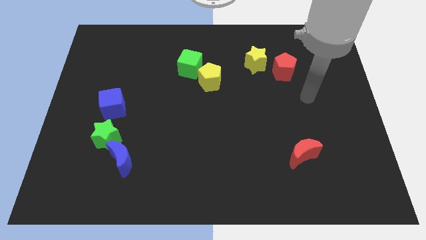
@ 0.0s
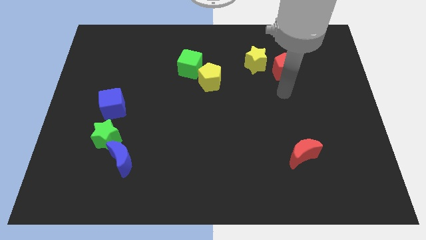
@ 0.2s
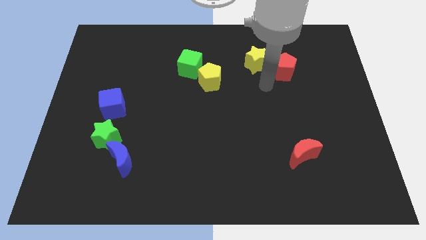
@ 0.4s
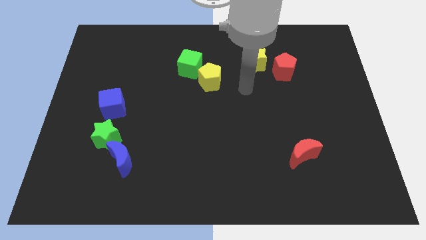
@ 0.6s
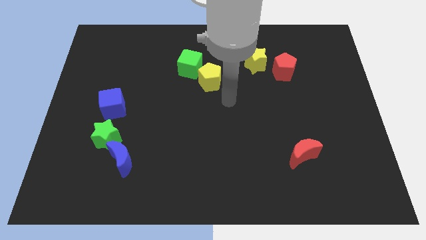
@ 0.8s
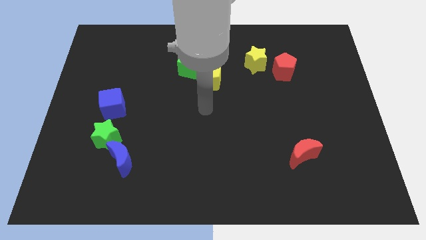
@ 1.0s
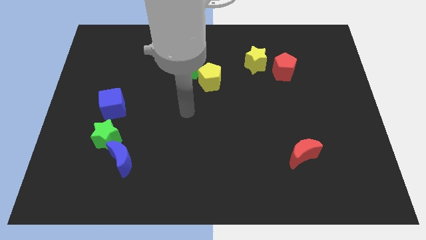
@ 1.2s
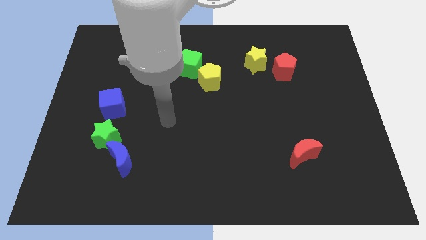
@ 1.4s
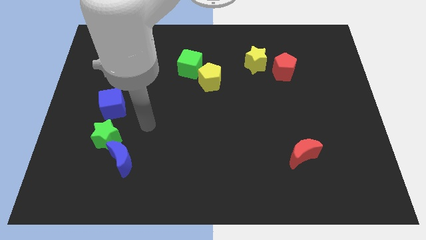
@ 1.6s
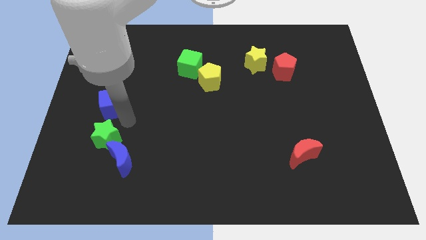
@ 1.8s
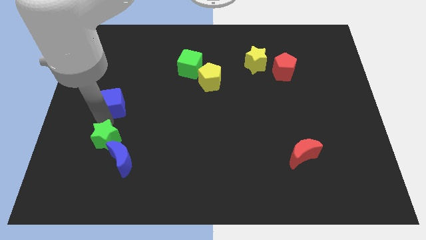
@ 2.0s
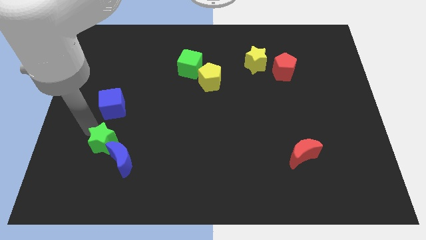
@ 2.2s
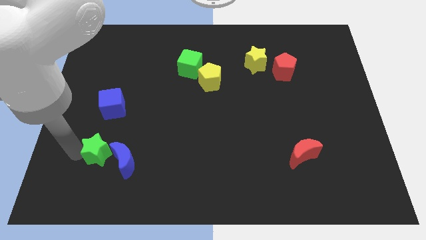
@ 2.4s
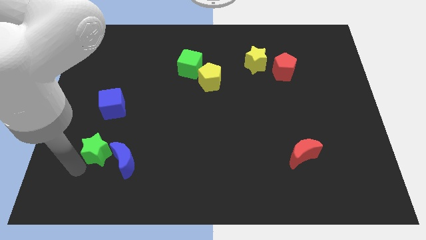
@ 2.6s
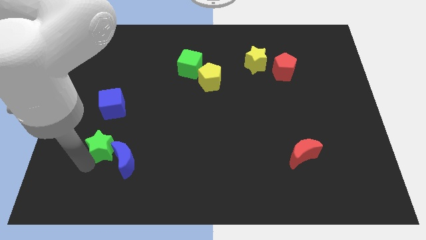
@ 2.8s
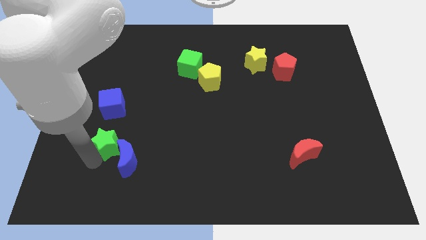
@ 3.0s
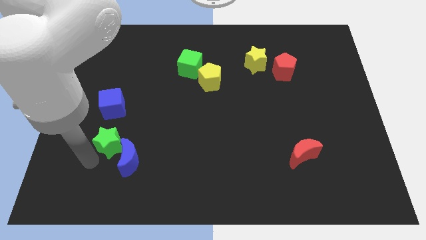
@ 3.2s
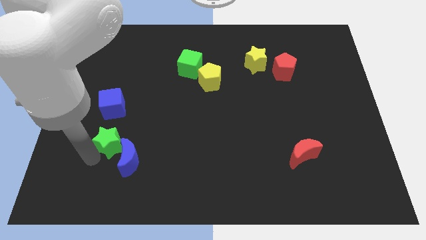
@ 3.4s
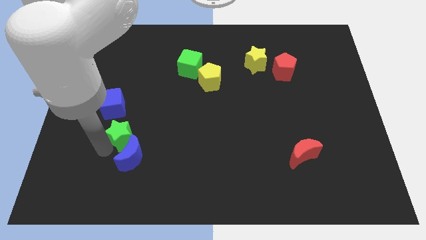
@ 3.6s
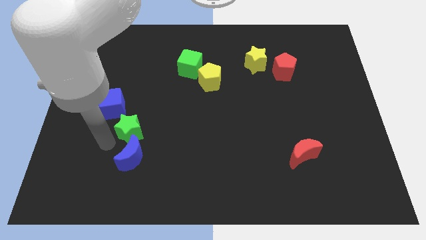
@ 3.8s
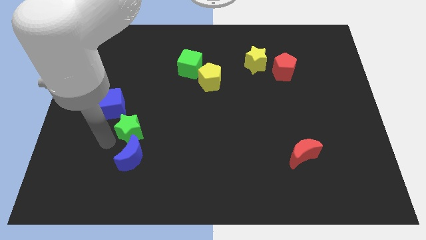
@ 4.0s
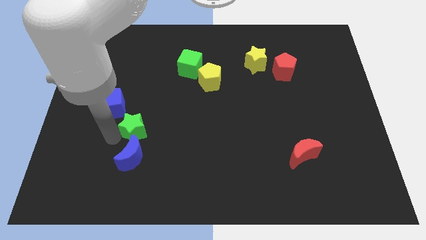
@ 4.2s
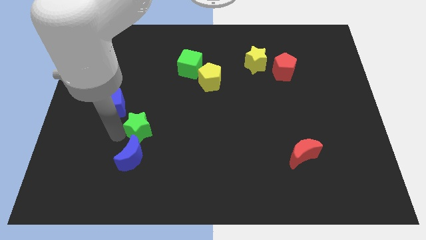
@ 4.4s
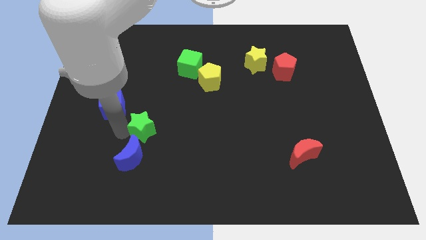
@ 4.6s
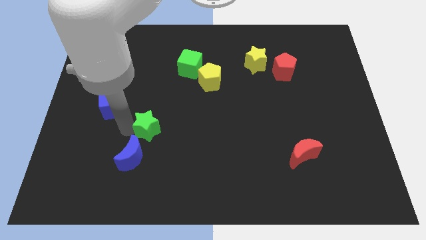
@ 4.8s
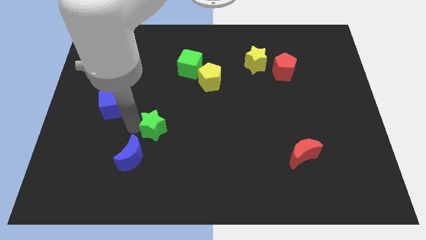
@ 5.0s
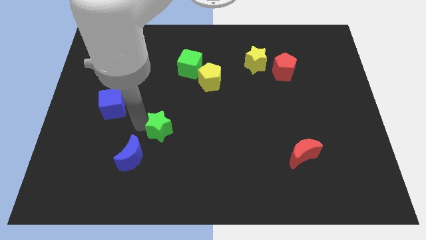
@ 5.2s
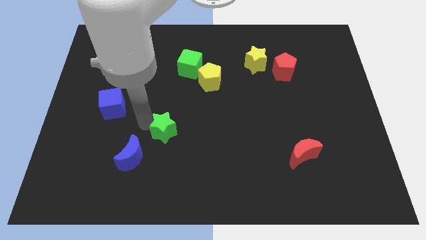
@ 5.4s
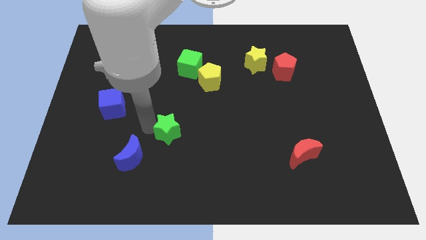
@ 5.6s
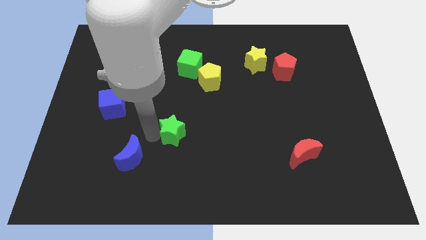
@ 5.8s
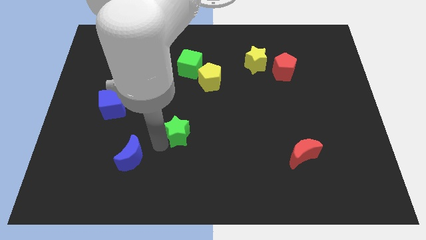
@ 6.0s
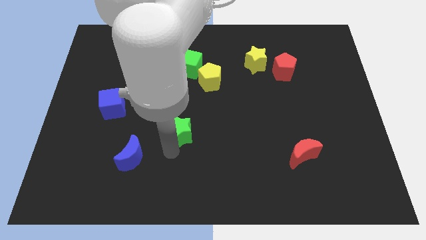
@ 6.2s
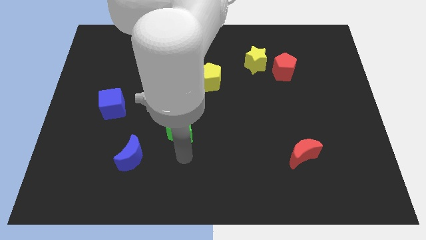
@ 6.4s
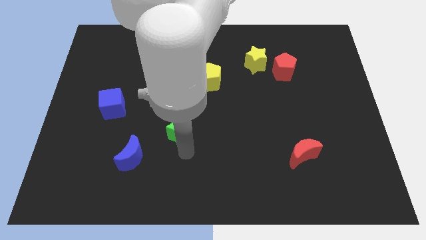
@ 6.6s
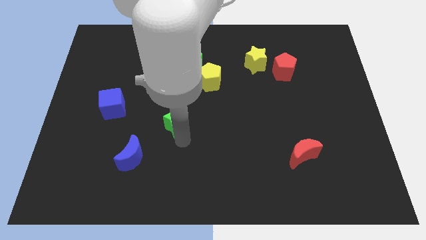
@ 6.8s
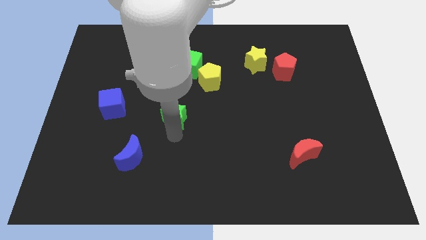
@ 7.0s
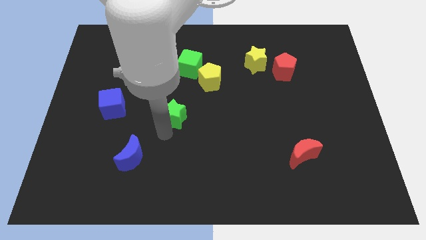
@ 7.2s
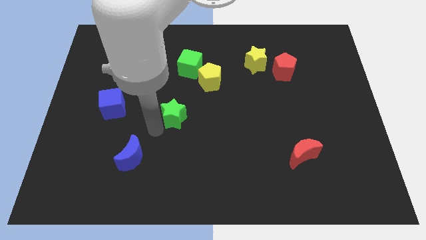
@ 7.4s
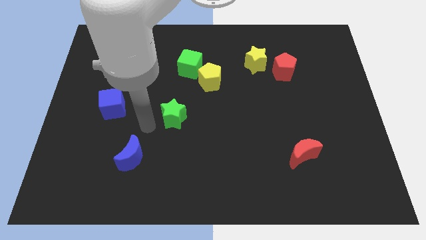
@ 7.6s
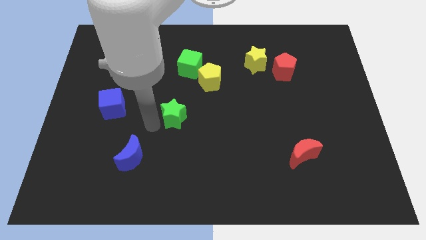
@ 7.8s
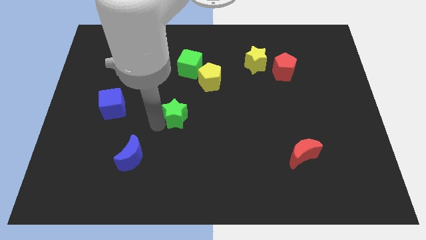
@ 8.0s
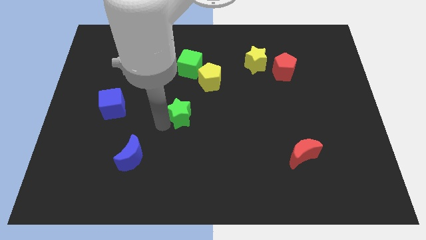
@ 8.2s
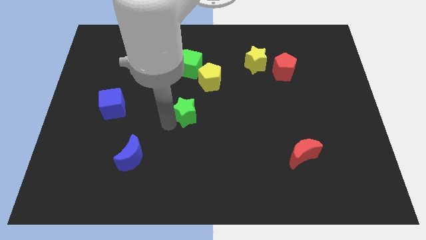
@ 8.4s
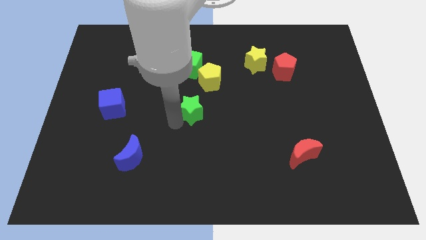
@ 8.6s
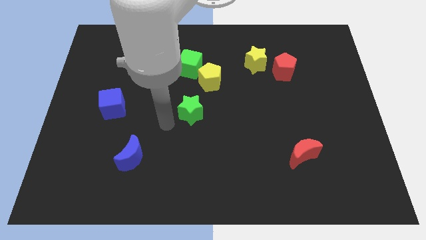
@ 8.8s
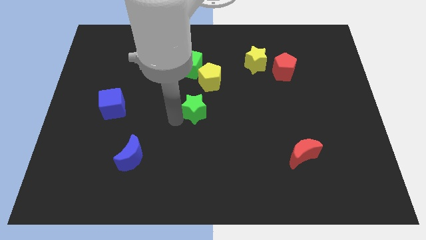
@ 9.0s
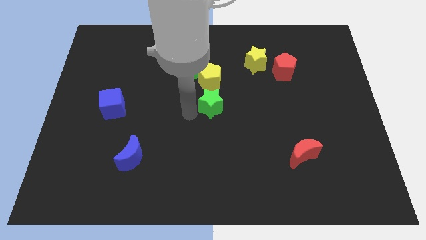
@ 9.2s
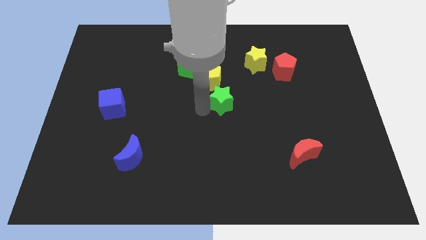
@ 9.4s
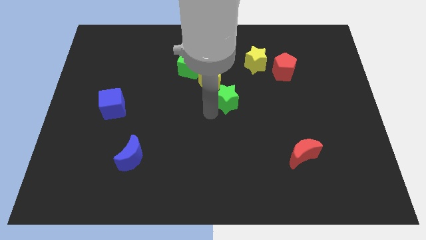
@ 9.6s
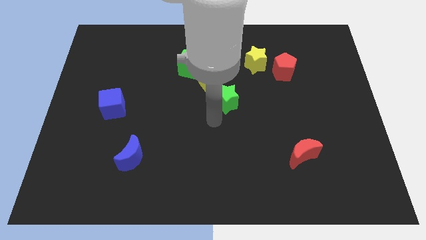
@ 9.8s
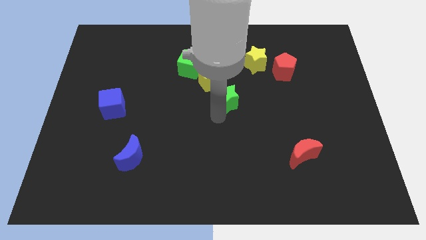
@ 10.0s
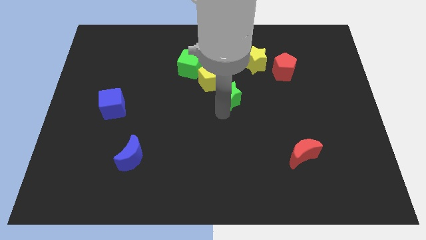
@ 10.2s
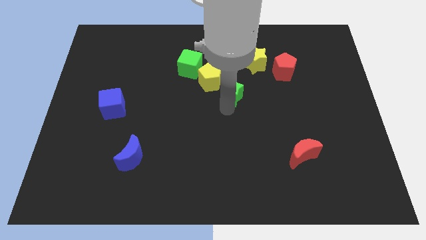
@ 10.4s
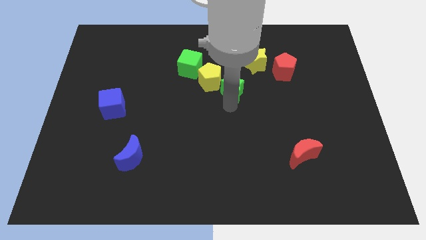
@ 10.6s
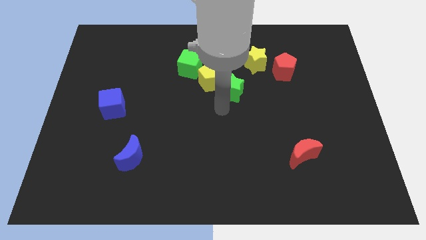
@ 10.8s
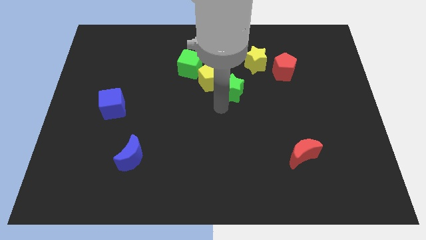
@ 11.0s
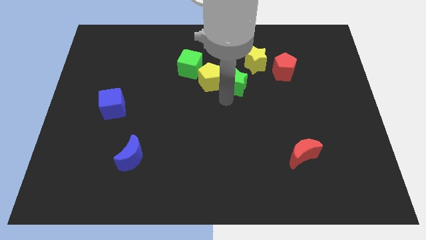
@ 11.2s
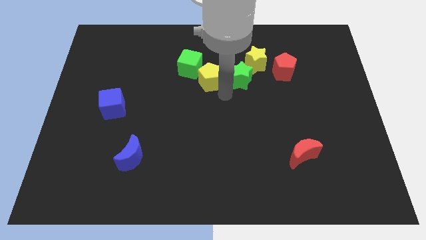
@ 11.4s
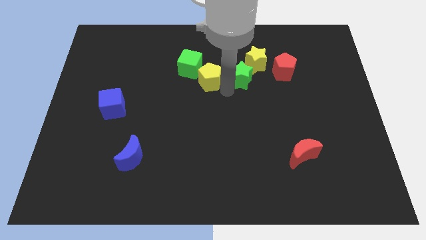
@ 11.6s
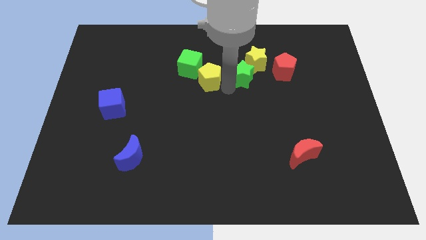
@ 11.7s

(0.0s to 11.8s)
put the green star close to the yellow star

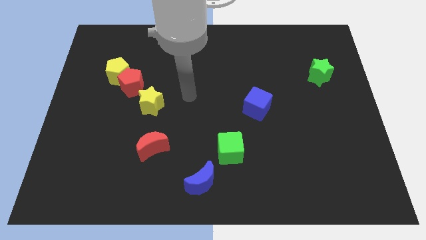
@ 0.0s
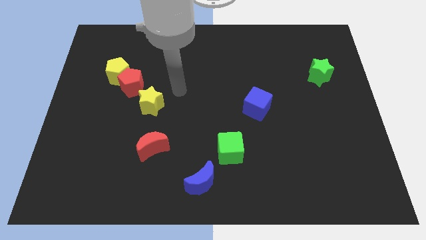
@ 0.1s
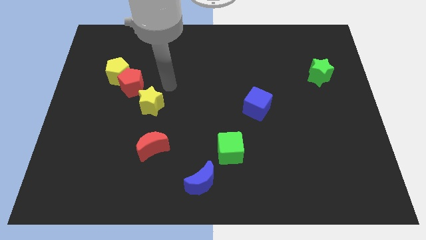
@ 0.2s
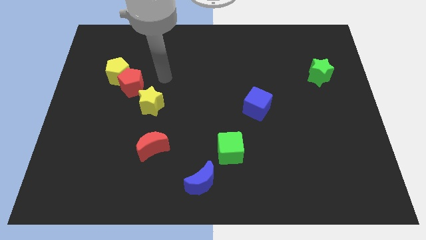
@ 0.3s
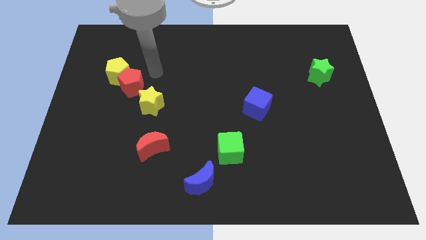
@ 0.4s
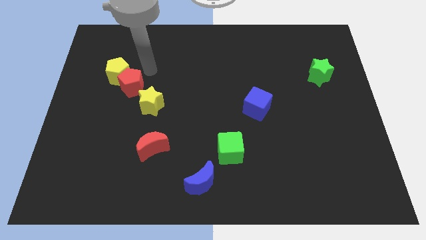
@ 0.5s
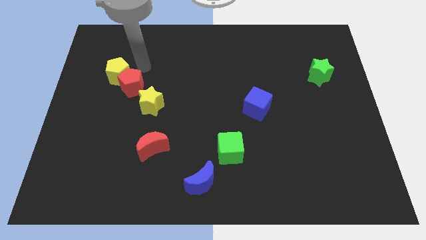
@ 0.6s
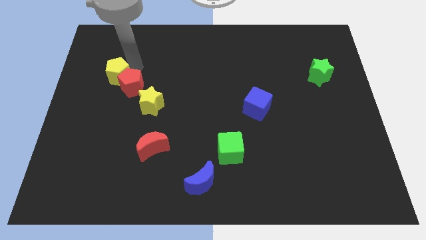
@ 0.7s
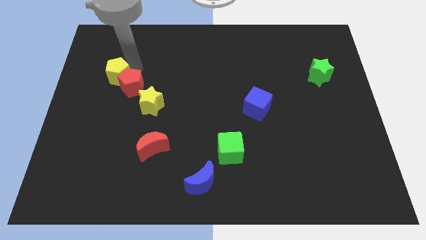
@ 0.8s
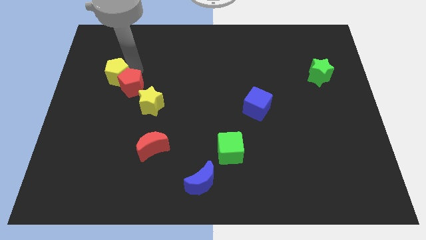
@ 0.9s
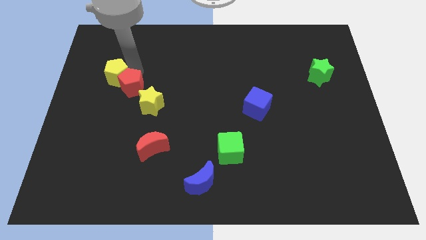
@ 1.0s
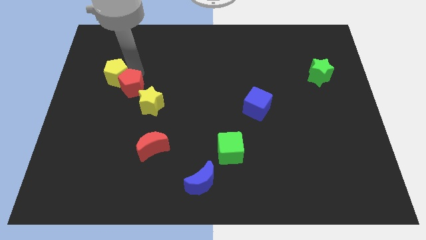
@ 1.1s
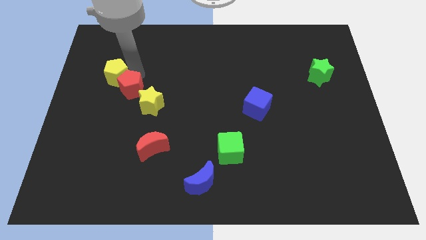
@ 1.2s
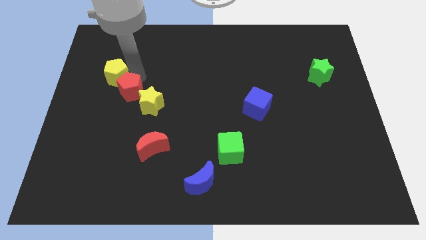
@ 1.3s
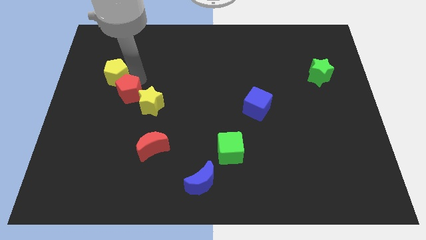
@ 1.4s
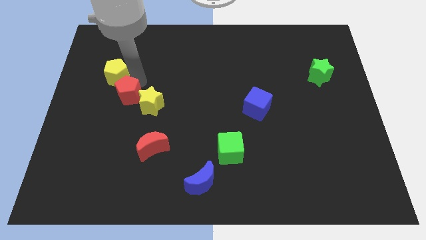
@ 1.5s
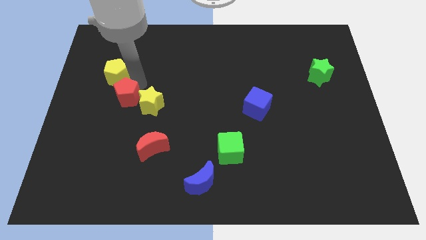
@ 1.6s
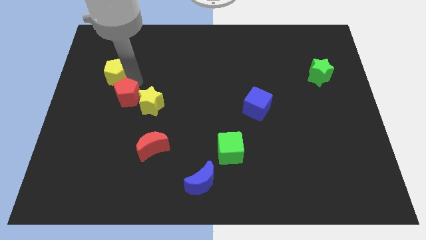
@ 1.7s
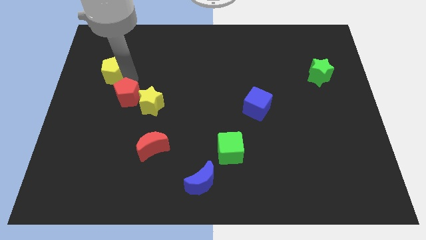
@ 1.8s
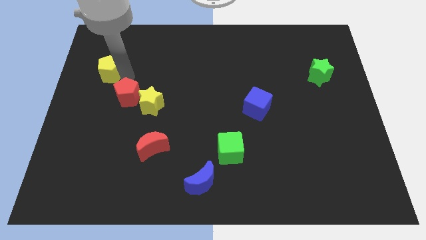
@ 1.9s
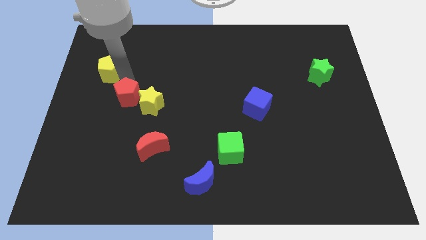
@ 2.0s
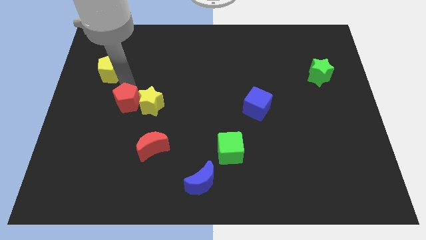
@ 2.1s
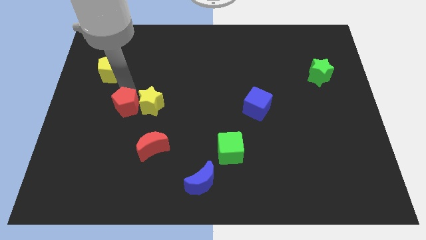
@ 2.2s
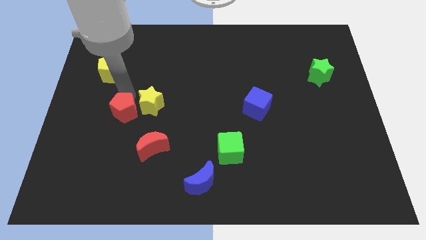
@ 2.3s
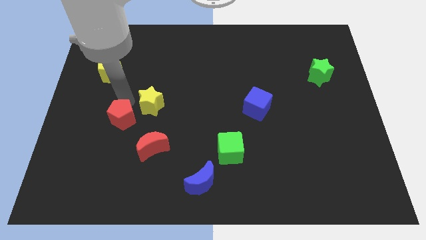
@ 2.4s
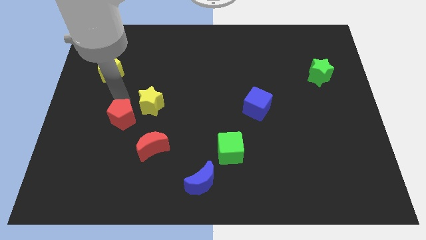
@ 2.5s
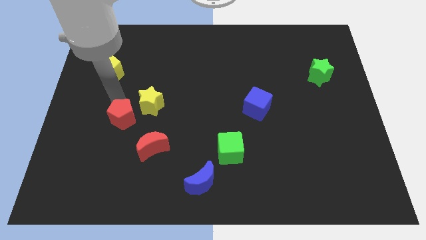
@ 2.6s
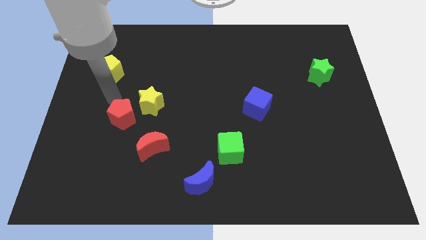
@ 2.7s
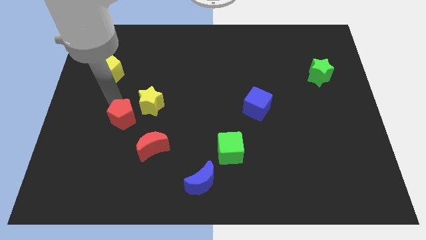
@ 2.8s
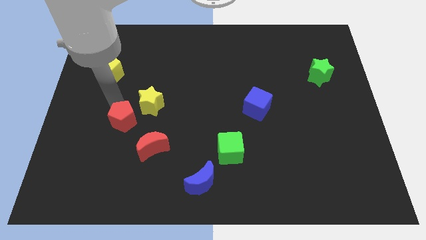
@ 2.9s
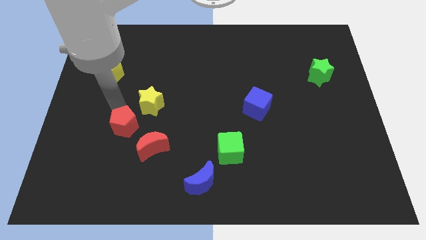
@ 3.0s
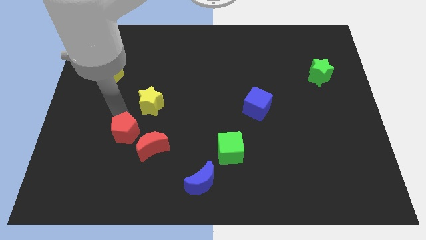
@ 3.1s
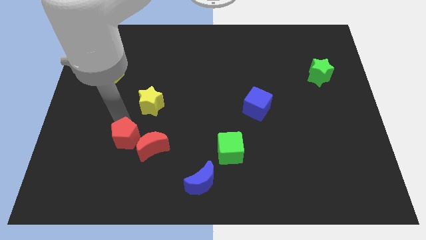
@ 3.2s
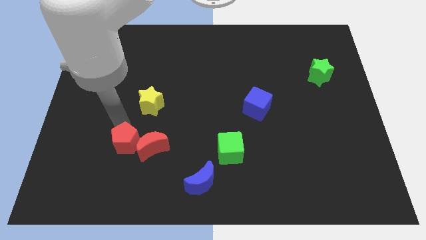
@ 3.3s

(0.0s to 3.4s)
slide the red pentagon close to the red moon
